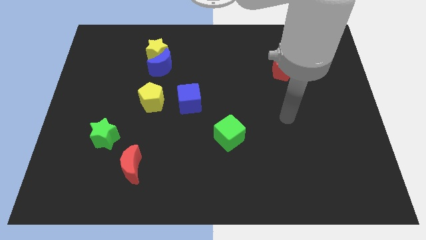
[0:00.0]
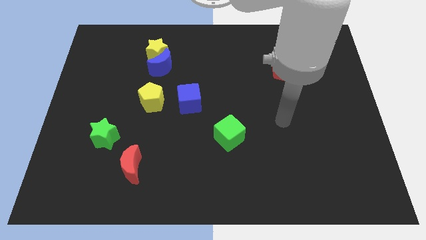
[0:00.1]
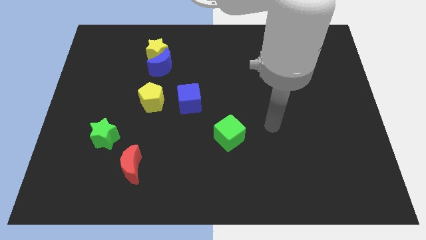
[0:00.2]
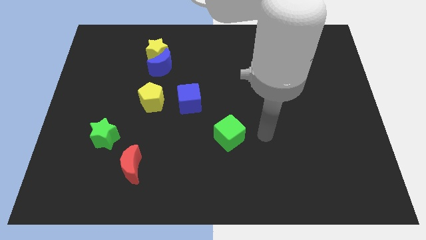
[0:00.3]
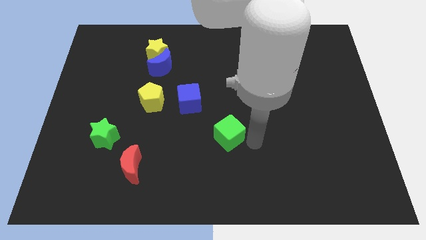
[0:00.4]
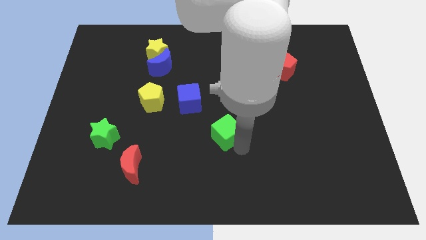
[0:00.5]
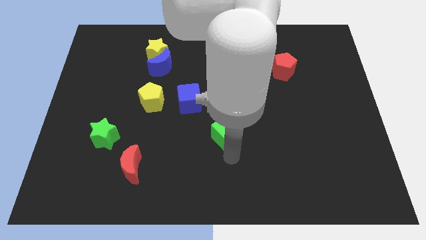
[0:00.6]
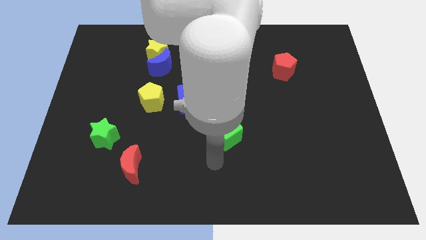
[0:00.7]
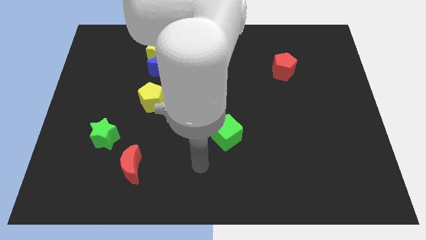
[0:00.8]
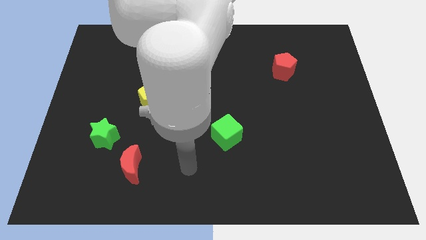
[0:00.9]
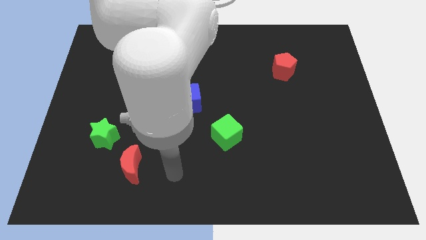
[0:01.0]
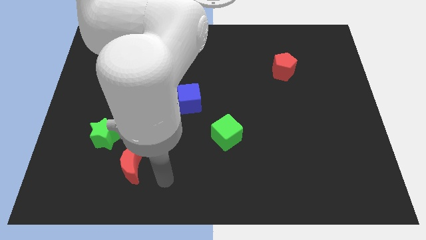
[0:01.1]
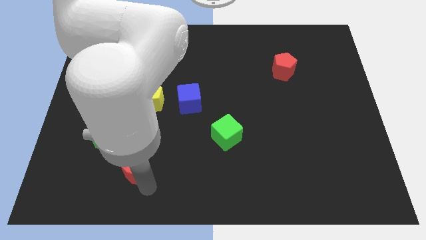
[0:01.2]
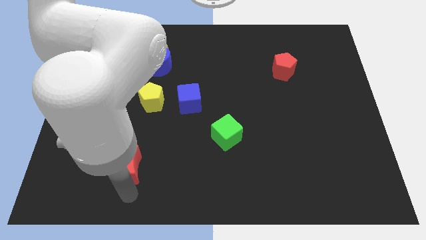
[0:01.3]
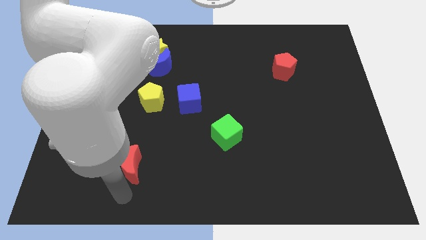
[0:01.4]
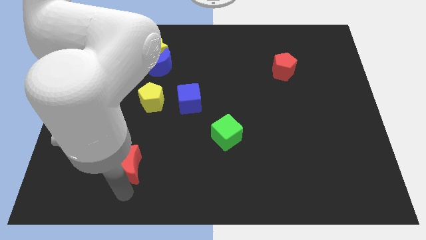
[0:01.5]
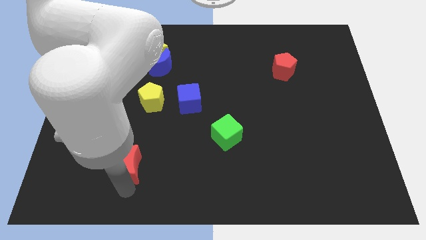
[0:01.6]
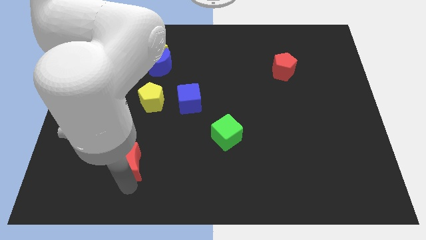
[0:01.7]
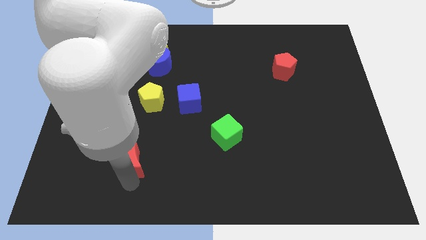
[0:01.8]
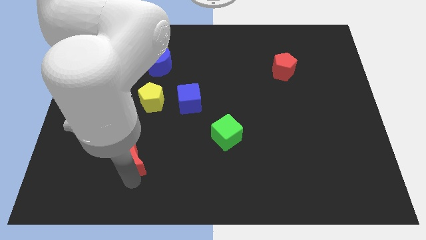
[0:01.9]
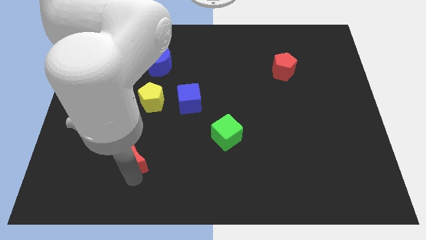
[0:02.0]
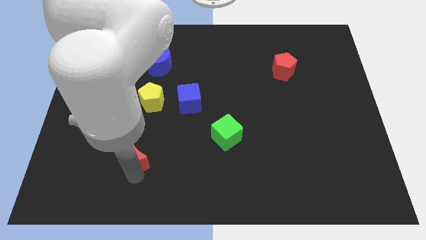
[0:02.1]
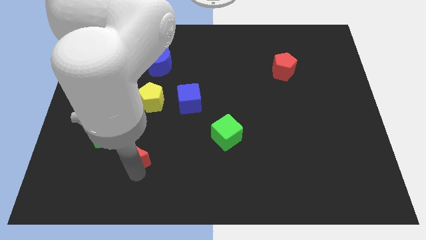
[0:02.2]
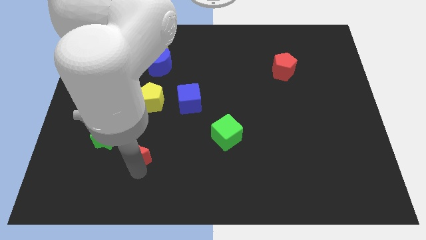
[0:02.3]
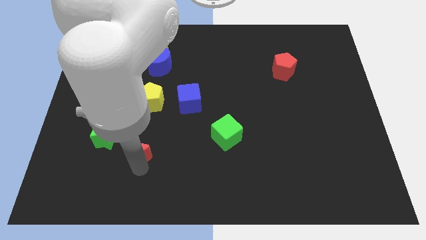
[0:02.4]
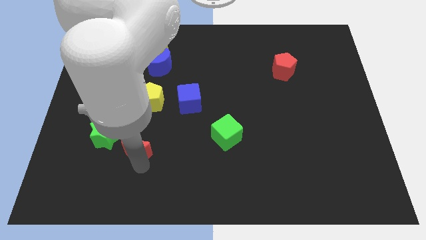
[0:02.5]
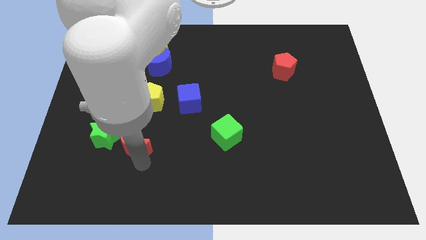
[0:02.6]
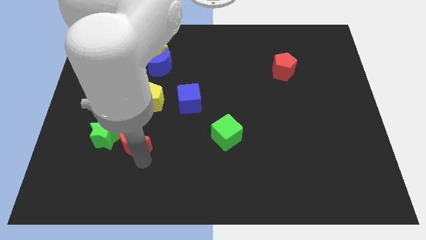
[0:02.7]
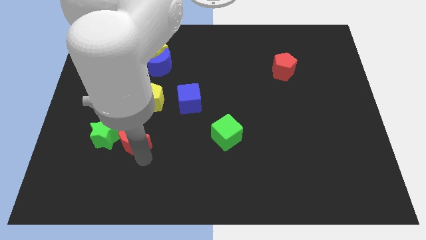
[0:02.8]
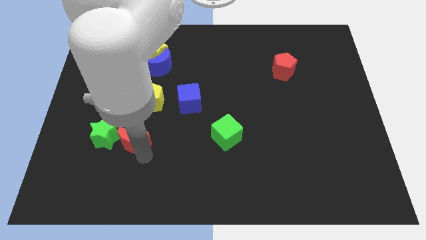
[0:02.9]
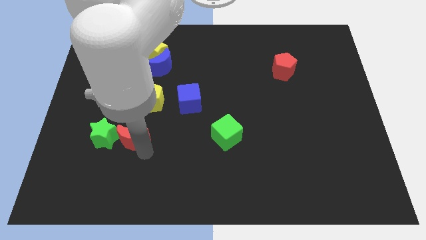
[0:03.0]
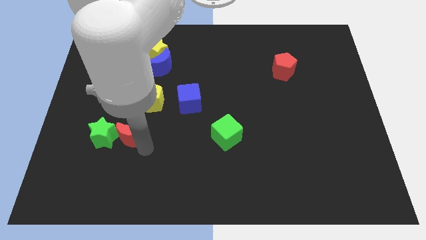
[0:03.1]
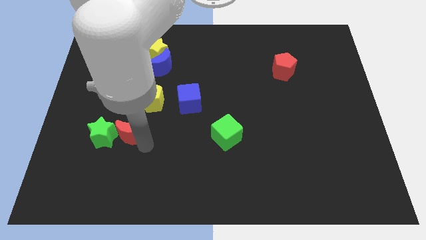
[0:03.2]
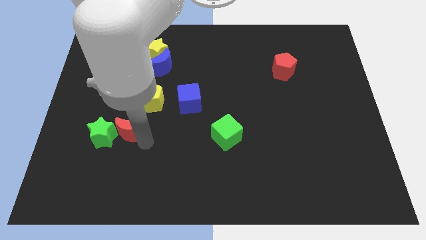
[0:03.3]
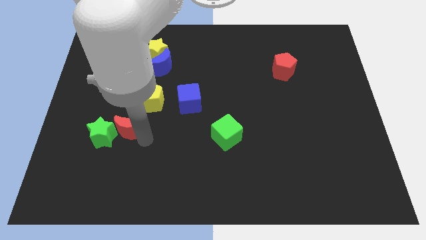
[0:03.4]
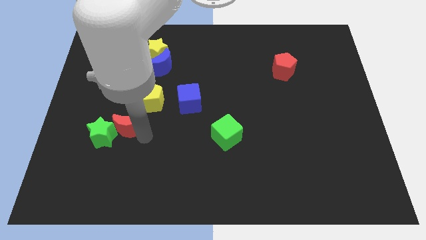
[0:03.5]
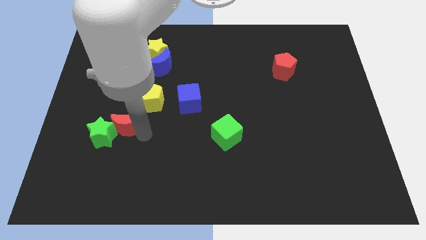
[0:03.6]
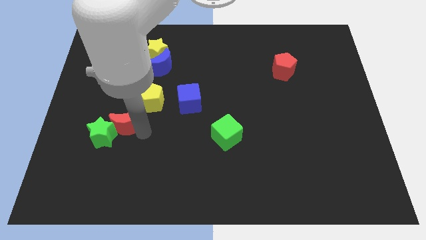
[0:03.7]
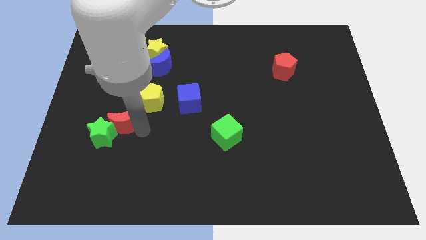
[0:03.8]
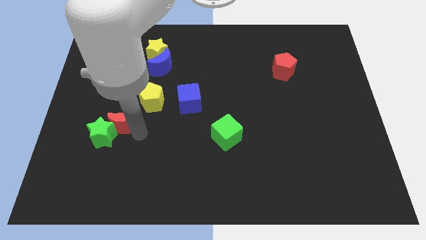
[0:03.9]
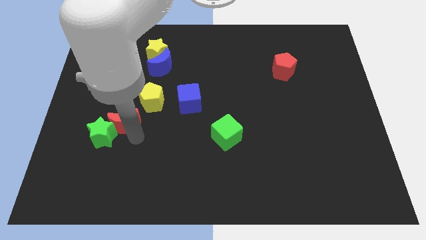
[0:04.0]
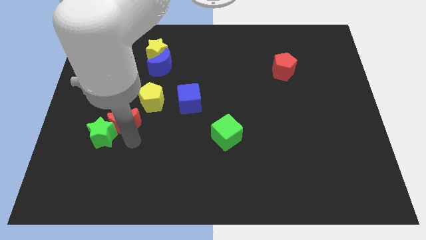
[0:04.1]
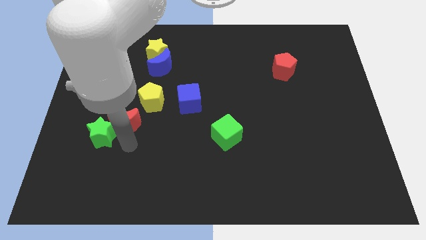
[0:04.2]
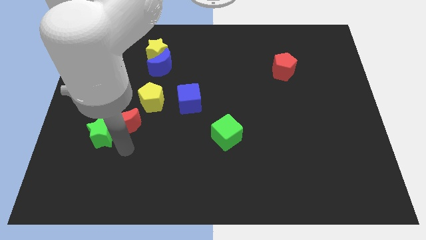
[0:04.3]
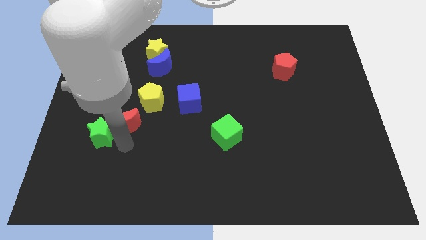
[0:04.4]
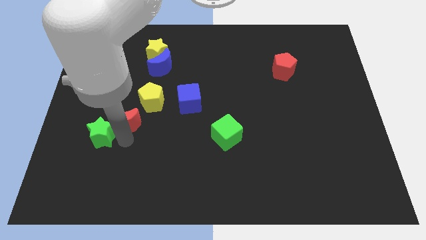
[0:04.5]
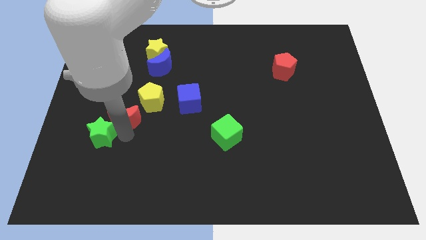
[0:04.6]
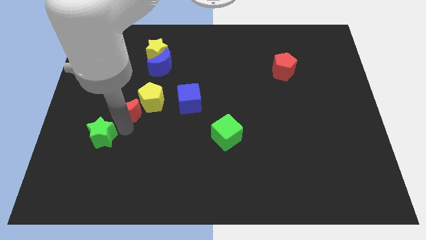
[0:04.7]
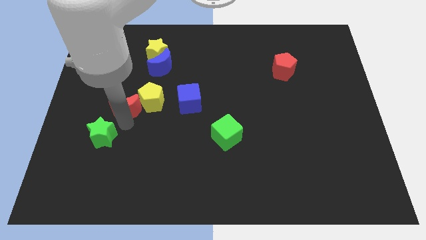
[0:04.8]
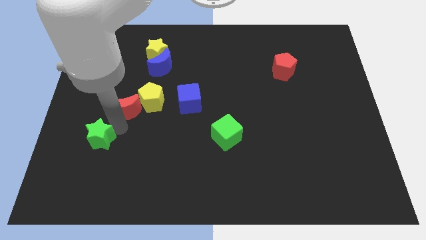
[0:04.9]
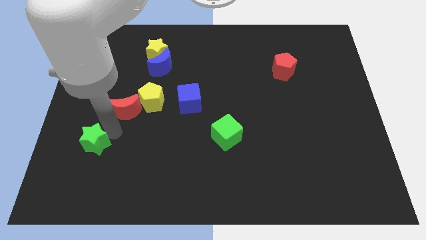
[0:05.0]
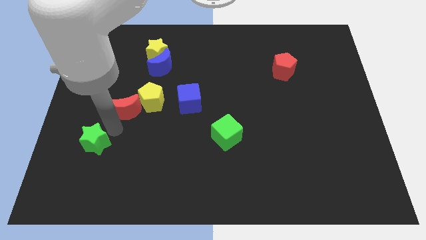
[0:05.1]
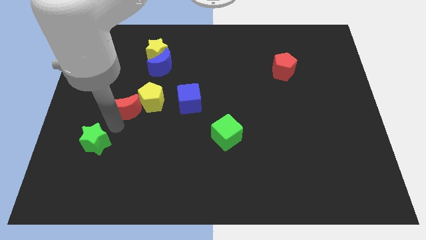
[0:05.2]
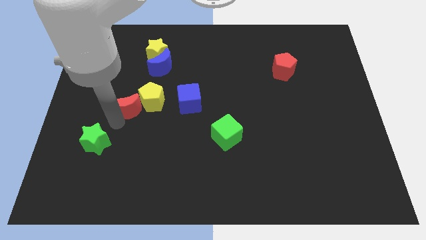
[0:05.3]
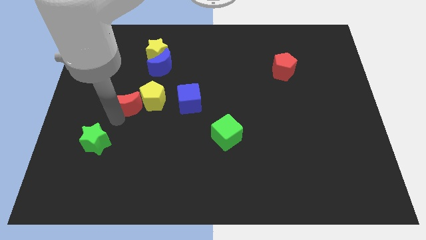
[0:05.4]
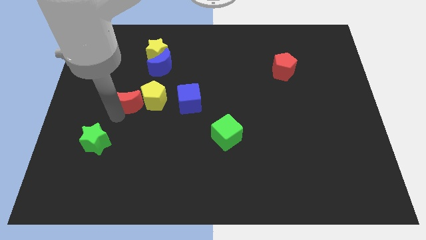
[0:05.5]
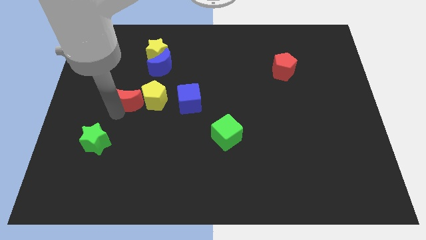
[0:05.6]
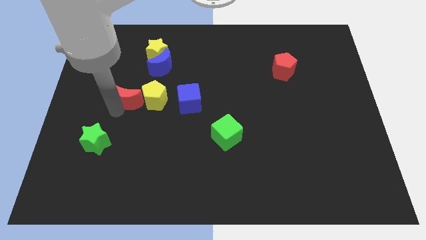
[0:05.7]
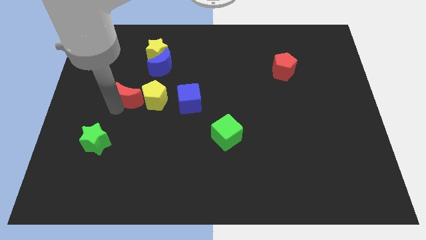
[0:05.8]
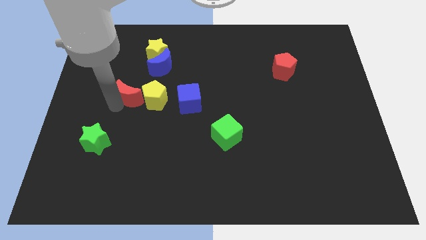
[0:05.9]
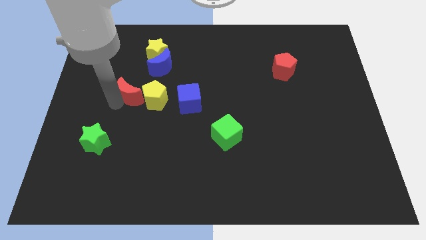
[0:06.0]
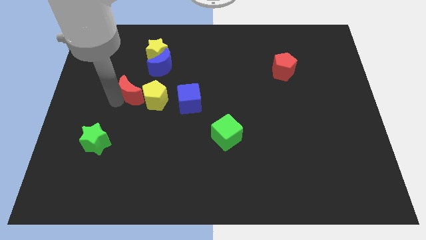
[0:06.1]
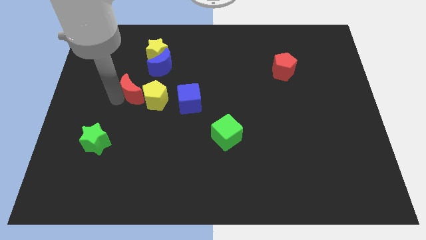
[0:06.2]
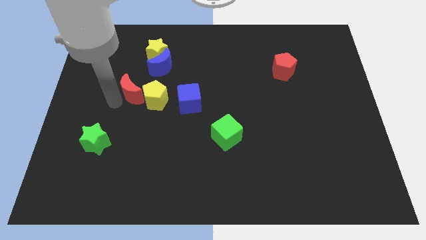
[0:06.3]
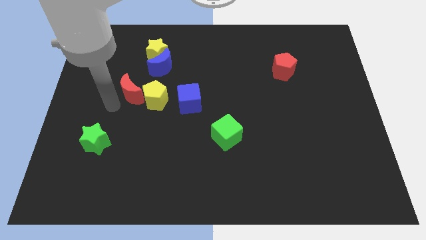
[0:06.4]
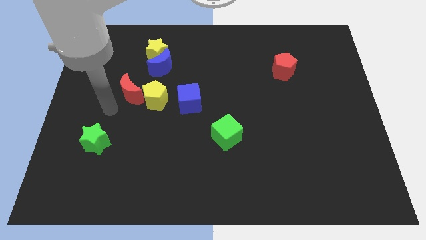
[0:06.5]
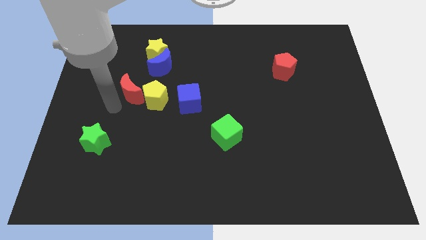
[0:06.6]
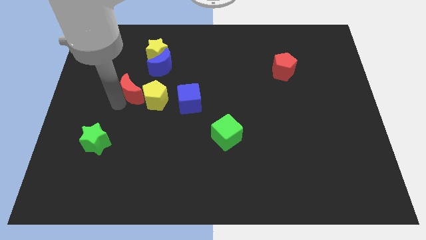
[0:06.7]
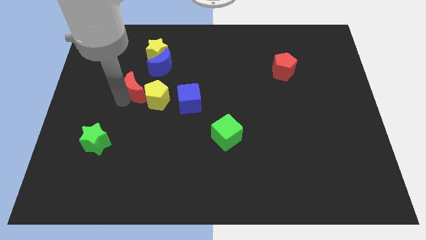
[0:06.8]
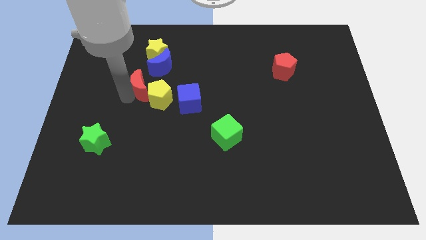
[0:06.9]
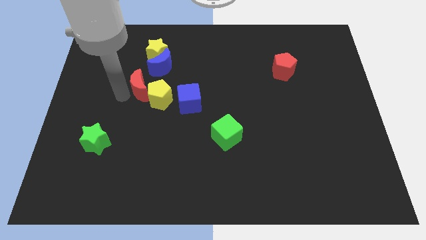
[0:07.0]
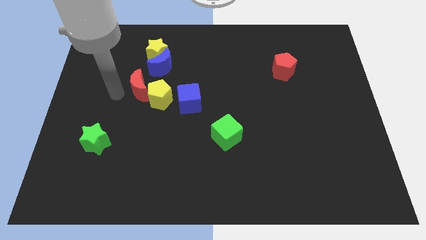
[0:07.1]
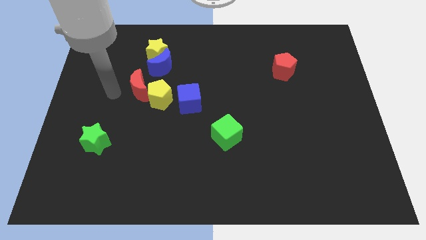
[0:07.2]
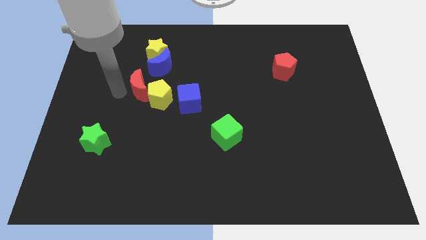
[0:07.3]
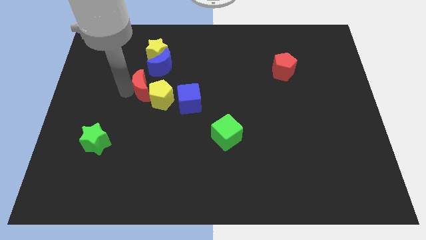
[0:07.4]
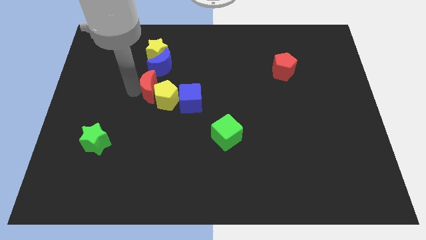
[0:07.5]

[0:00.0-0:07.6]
push the red moon to the top left side of the blue cube
